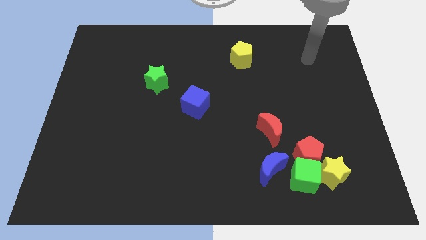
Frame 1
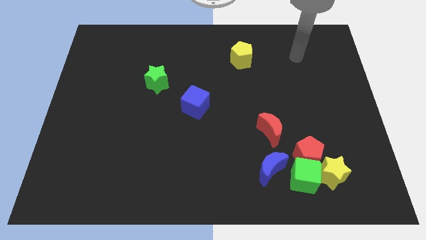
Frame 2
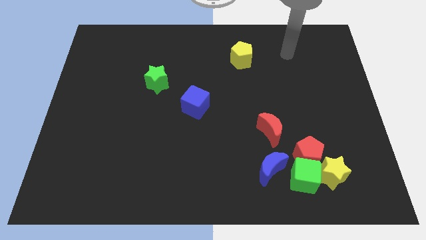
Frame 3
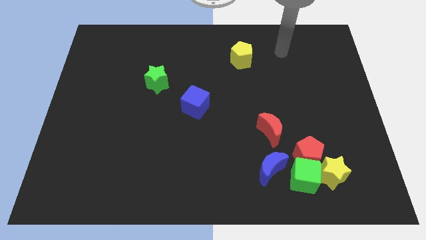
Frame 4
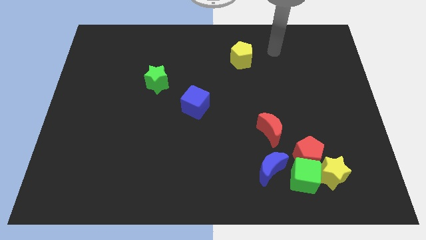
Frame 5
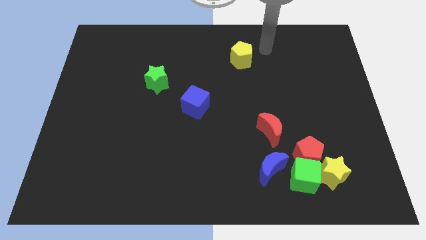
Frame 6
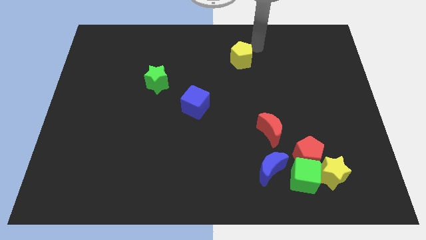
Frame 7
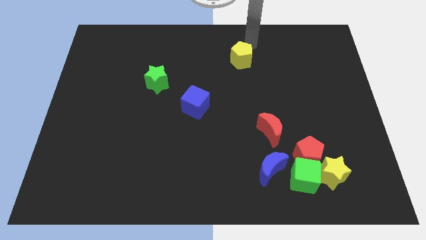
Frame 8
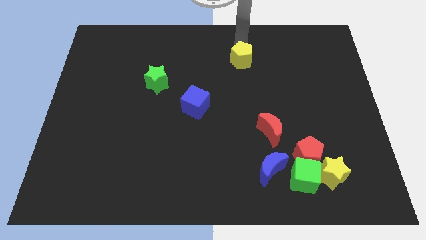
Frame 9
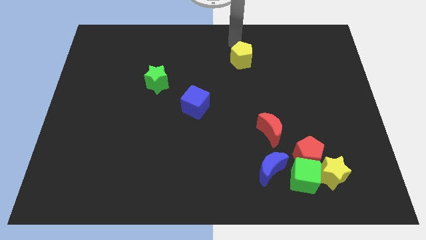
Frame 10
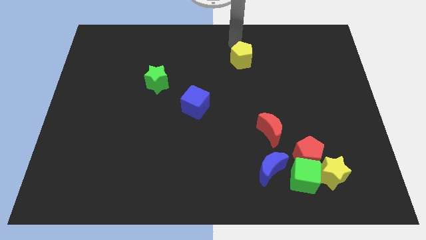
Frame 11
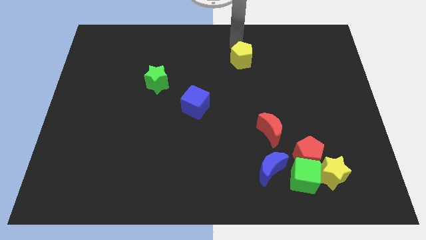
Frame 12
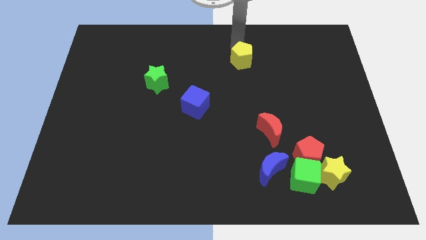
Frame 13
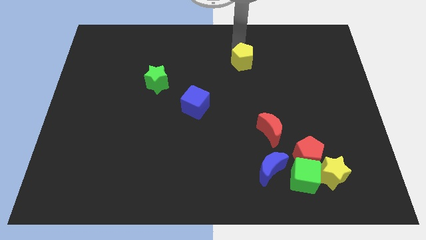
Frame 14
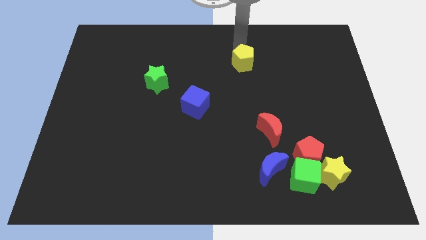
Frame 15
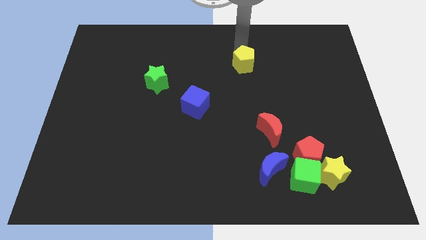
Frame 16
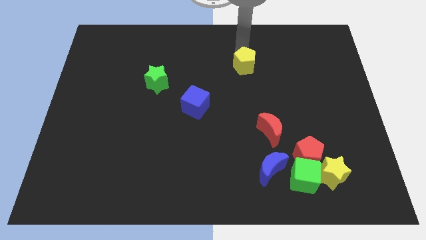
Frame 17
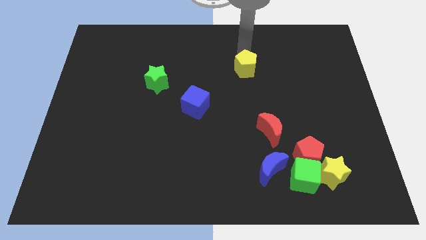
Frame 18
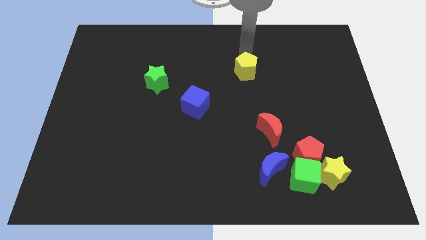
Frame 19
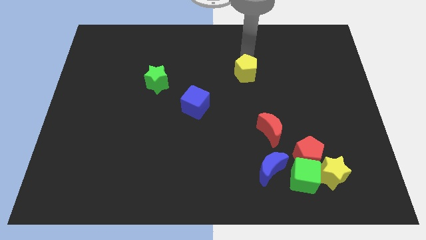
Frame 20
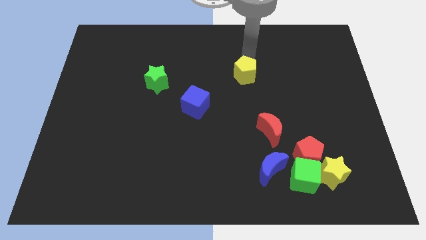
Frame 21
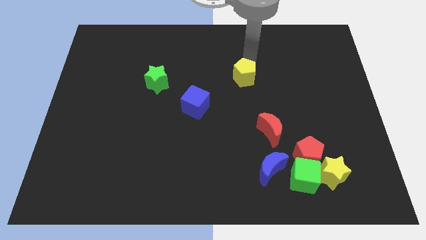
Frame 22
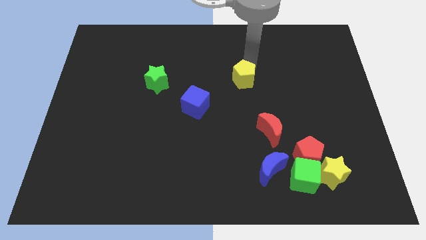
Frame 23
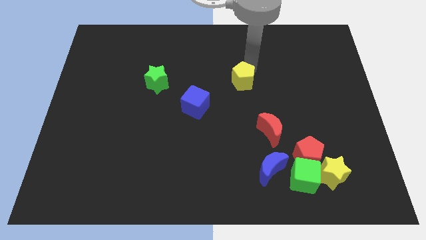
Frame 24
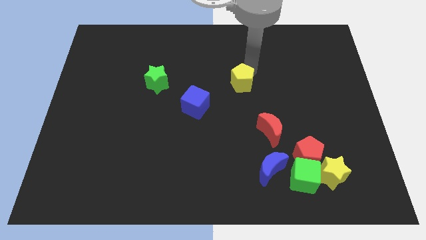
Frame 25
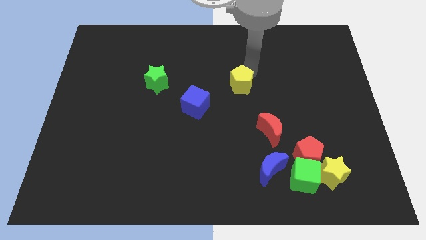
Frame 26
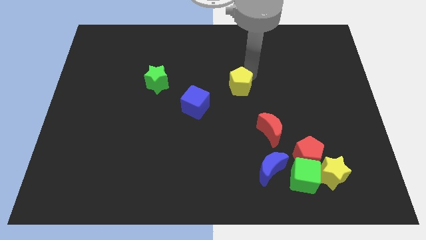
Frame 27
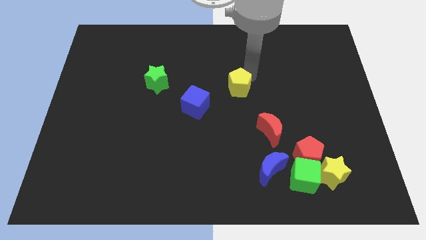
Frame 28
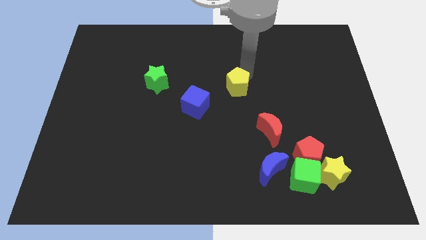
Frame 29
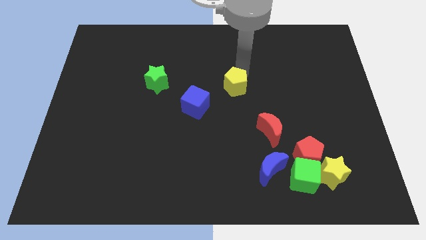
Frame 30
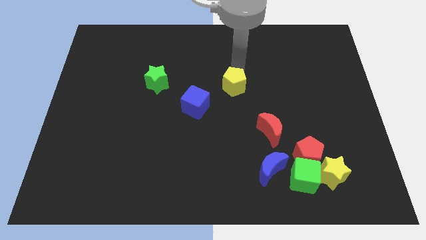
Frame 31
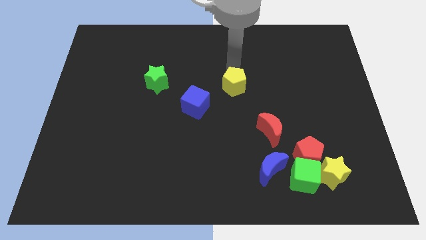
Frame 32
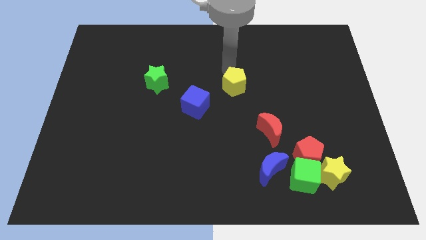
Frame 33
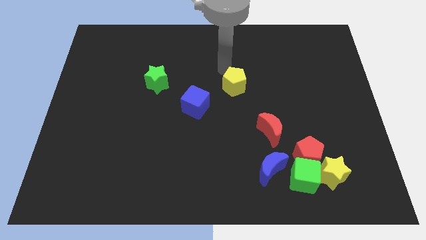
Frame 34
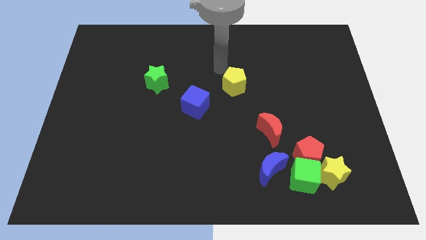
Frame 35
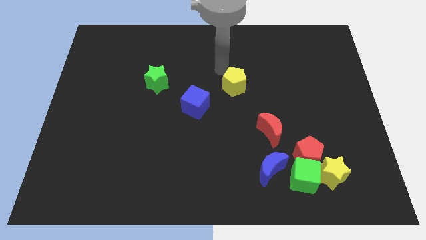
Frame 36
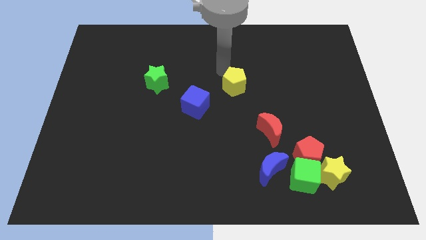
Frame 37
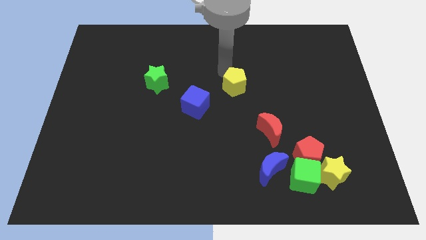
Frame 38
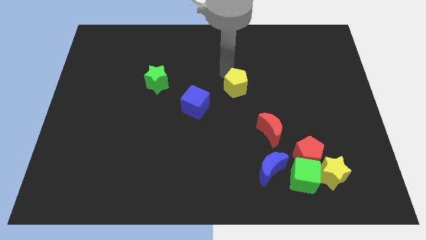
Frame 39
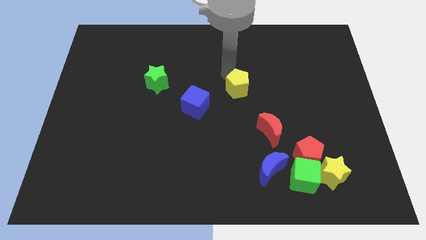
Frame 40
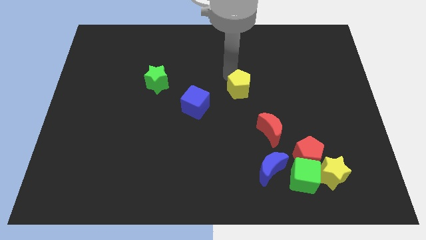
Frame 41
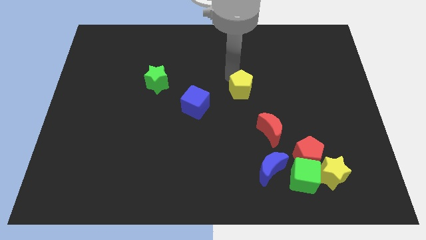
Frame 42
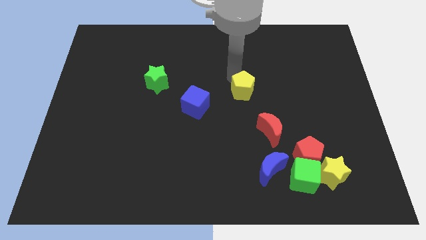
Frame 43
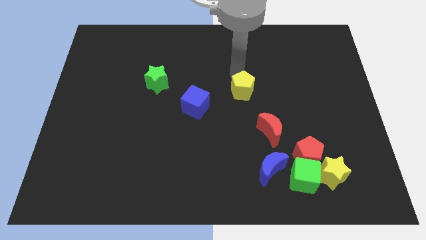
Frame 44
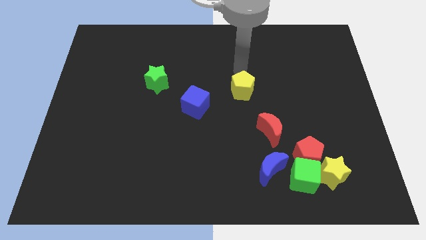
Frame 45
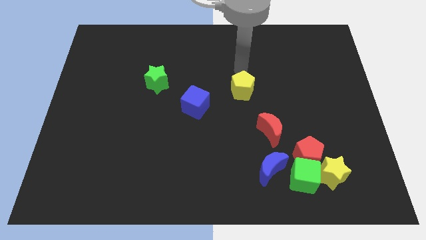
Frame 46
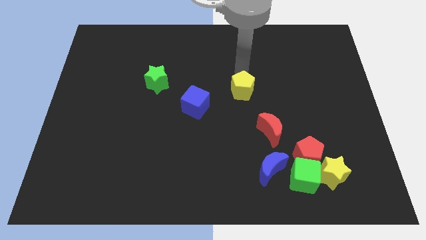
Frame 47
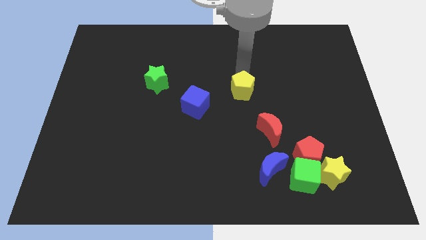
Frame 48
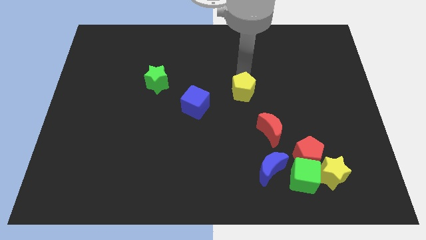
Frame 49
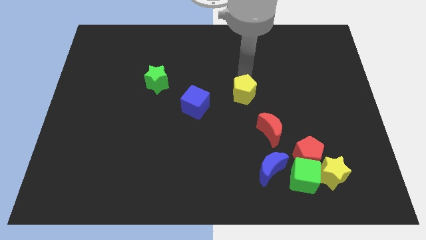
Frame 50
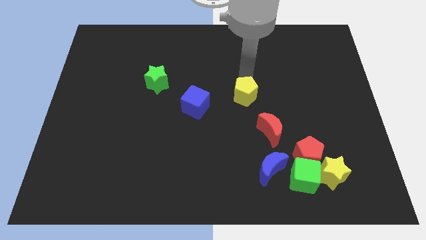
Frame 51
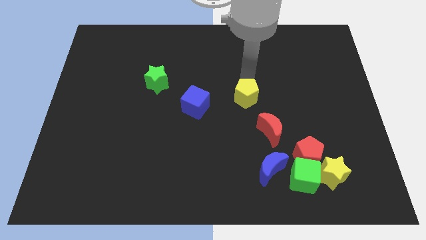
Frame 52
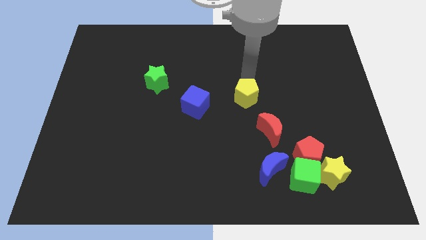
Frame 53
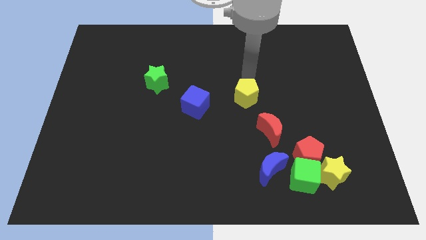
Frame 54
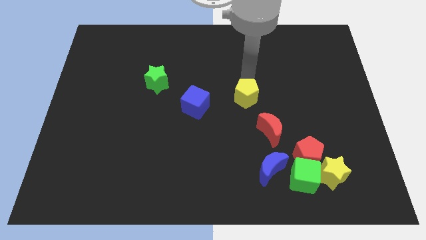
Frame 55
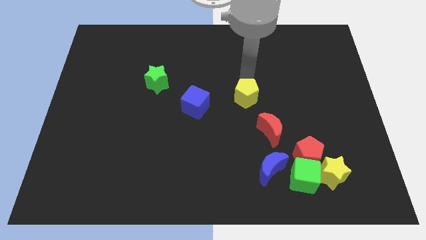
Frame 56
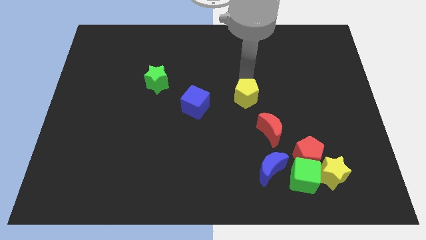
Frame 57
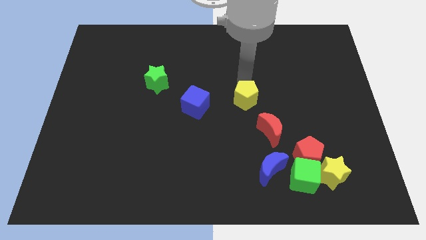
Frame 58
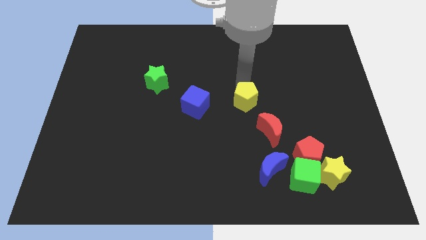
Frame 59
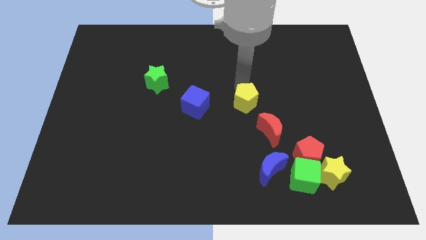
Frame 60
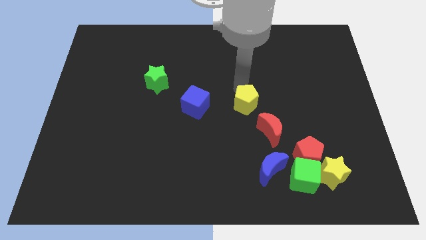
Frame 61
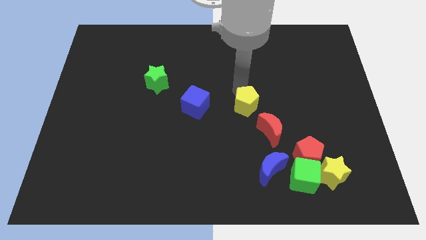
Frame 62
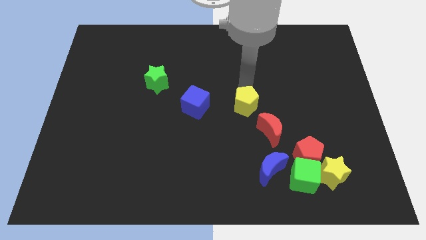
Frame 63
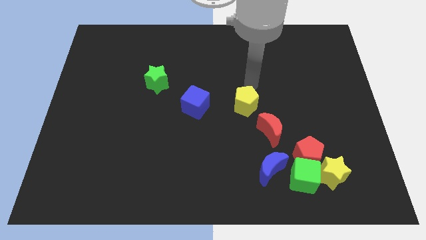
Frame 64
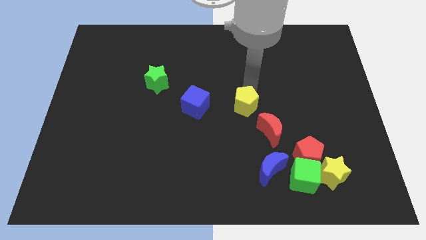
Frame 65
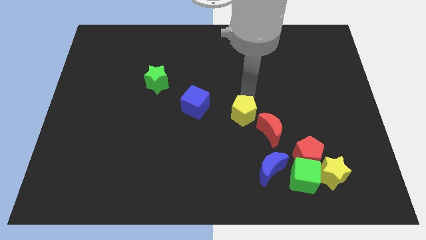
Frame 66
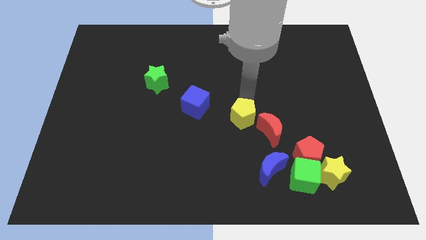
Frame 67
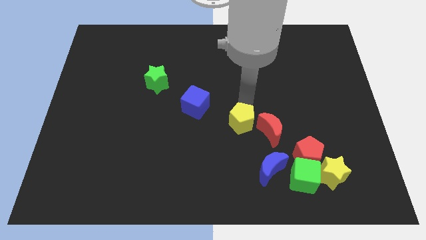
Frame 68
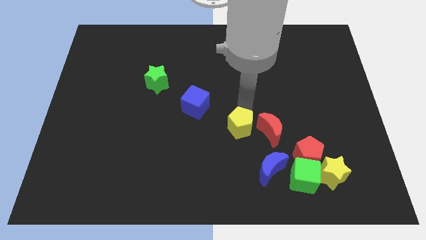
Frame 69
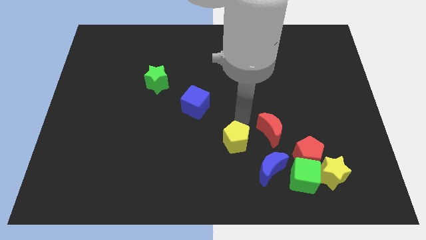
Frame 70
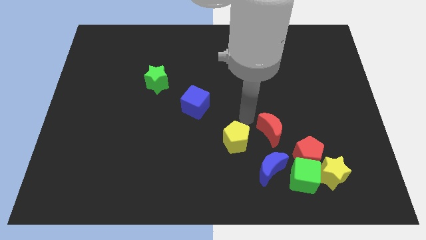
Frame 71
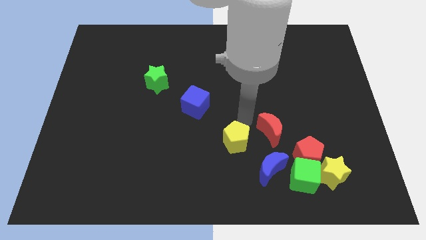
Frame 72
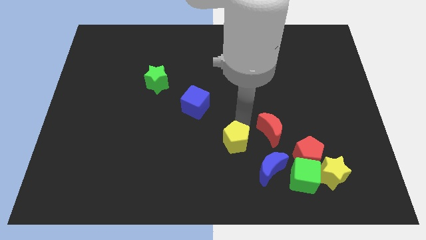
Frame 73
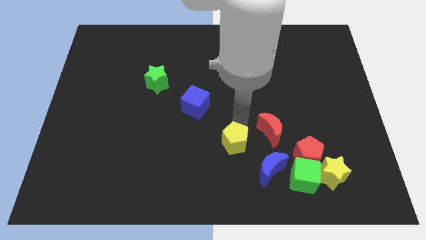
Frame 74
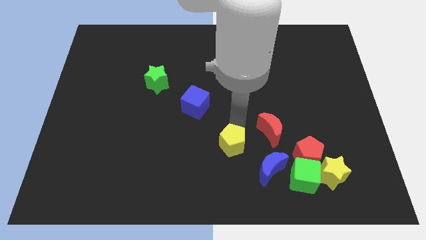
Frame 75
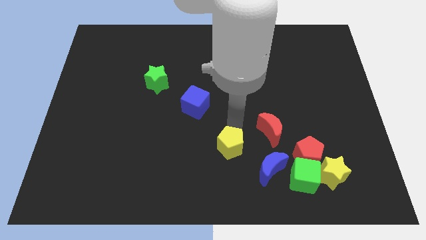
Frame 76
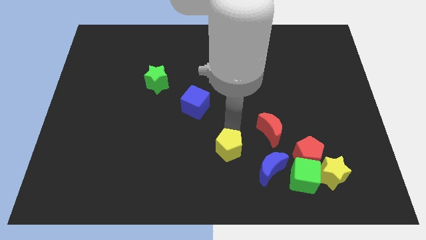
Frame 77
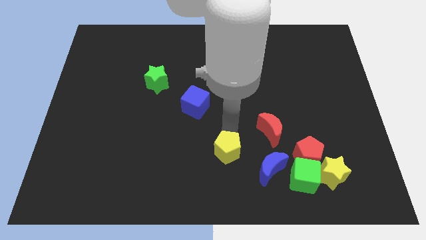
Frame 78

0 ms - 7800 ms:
push the yellow pentagon left of the blue moon
